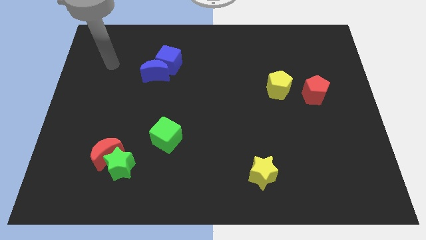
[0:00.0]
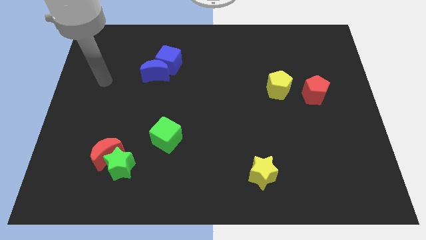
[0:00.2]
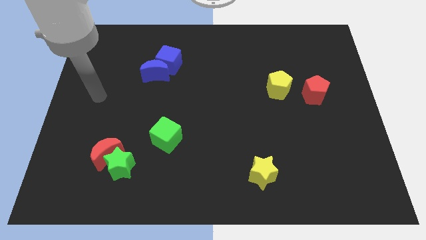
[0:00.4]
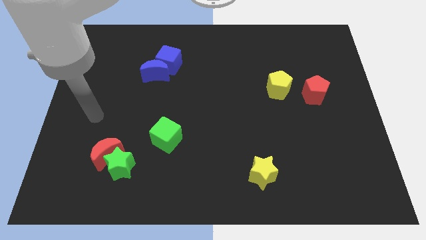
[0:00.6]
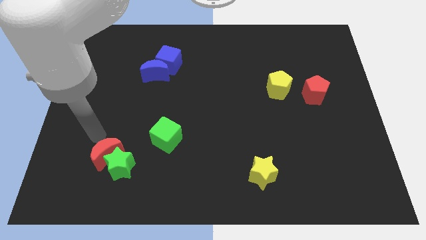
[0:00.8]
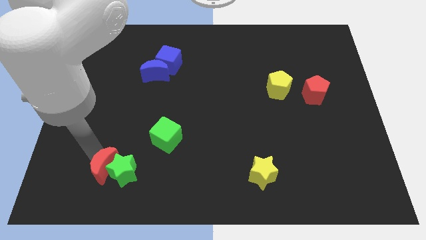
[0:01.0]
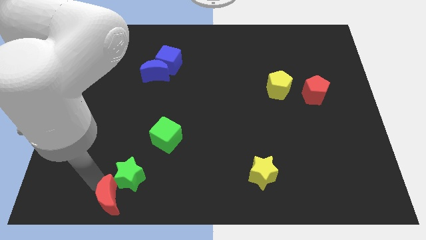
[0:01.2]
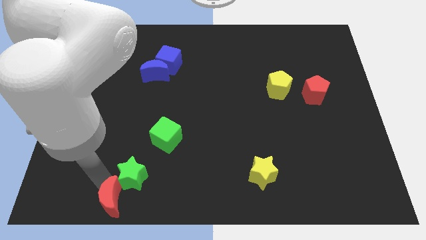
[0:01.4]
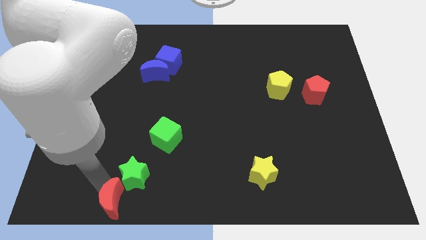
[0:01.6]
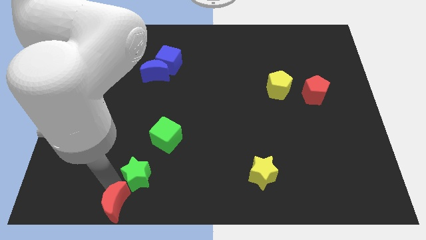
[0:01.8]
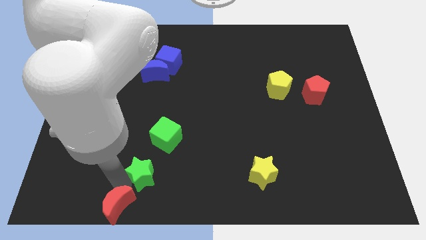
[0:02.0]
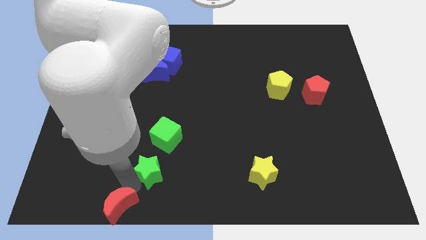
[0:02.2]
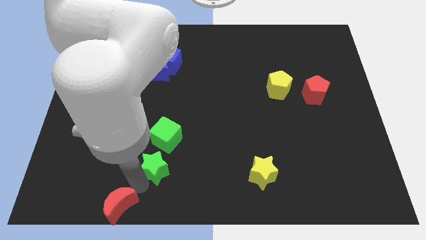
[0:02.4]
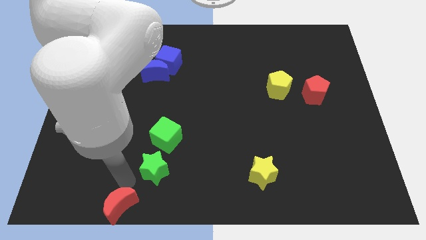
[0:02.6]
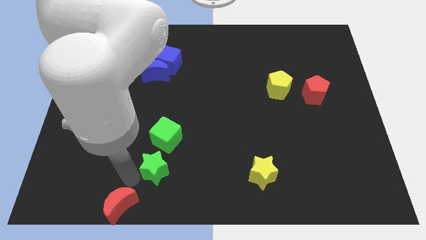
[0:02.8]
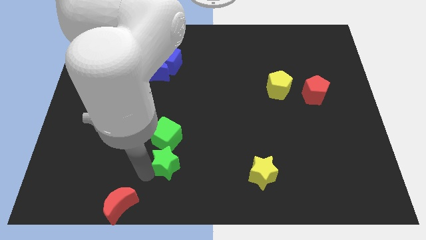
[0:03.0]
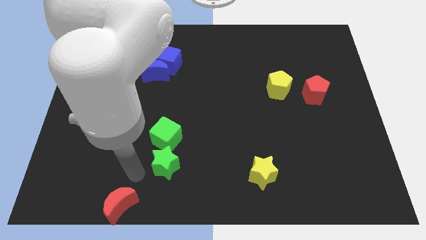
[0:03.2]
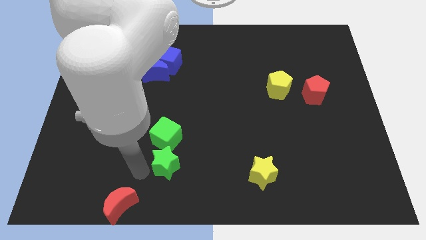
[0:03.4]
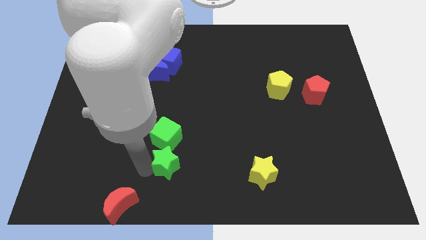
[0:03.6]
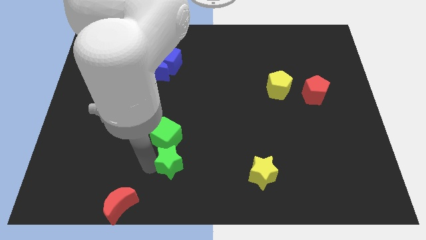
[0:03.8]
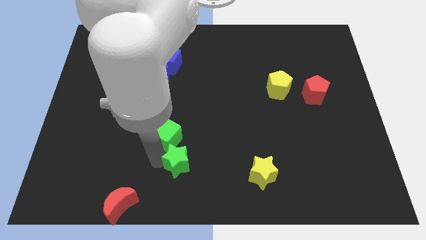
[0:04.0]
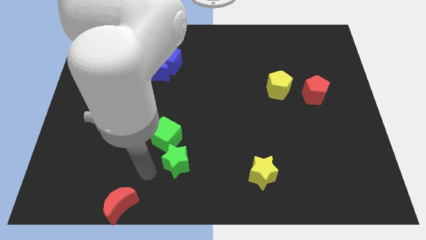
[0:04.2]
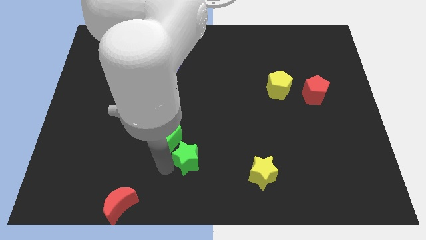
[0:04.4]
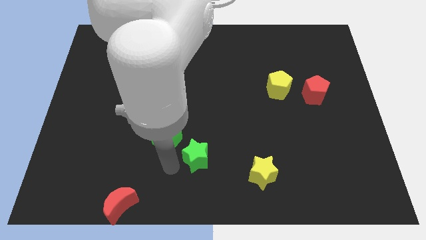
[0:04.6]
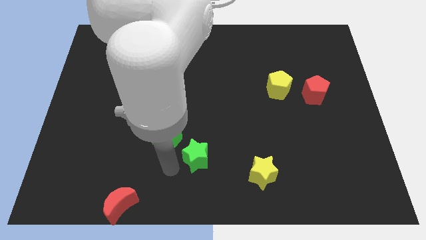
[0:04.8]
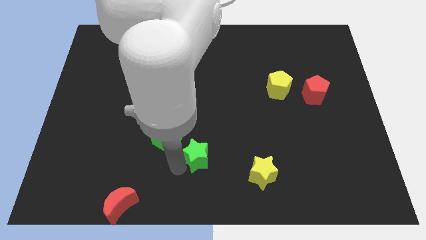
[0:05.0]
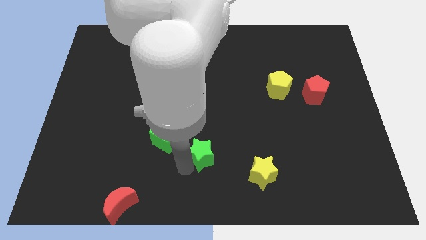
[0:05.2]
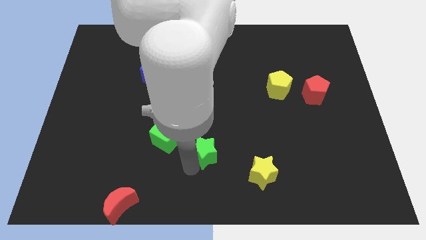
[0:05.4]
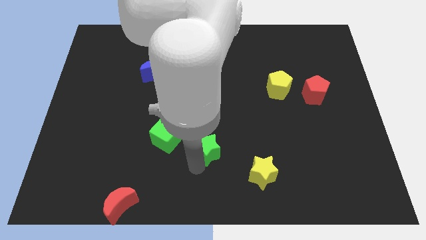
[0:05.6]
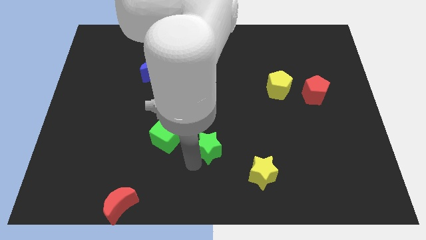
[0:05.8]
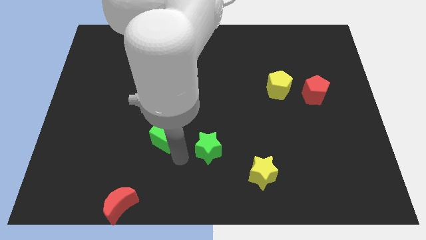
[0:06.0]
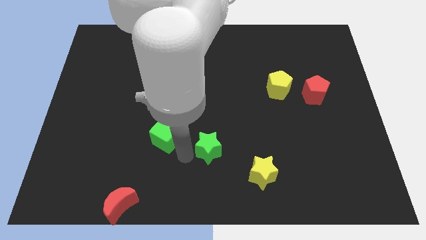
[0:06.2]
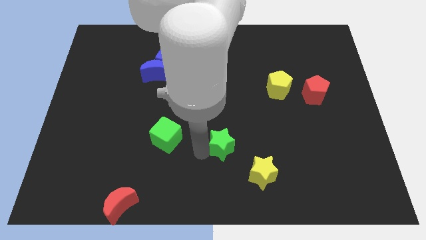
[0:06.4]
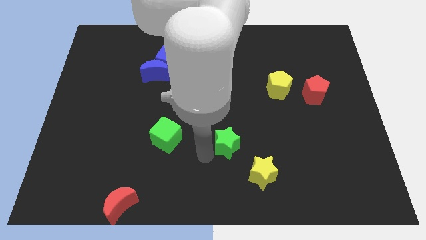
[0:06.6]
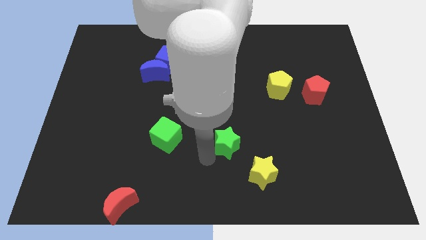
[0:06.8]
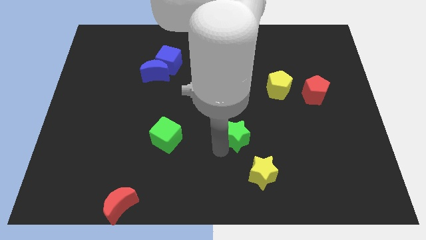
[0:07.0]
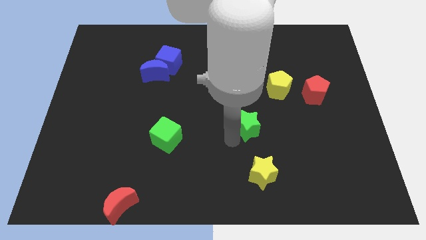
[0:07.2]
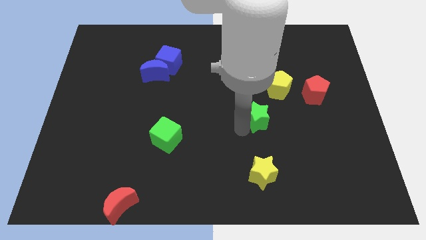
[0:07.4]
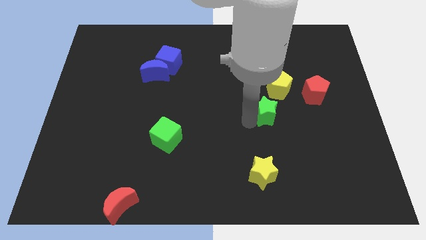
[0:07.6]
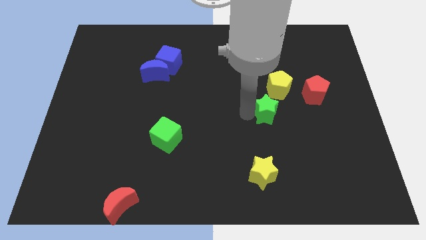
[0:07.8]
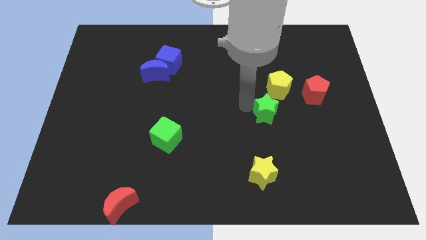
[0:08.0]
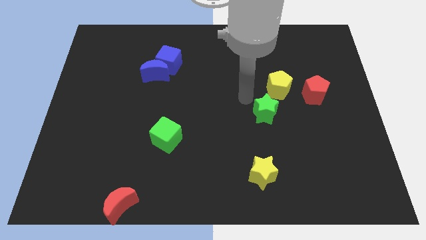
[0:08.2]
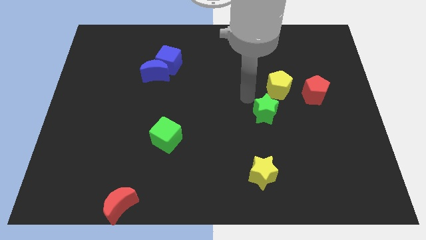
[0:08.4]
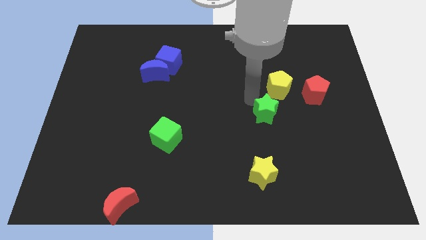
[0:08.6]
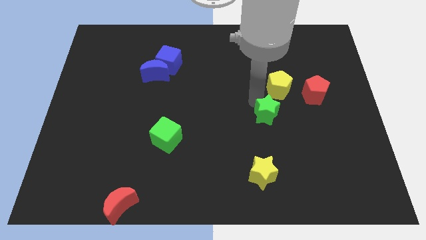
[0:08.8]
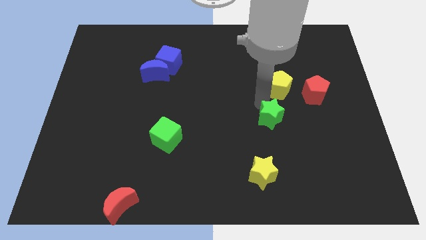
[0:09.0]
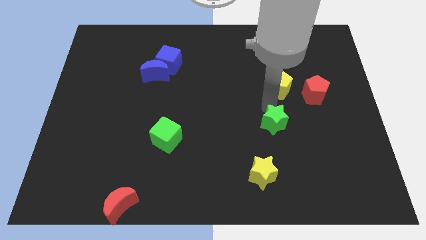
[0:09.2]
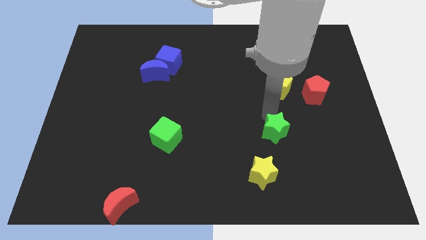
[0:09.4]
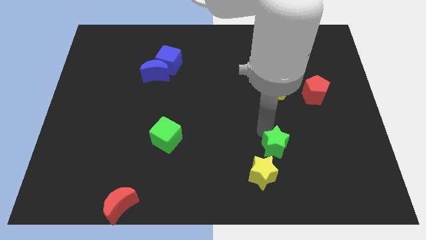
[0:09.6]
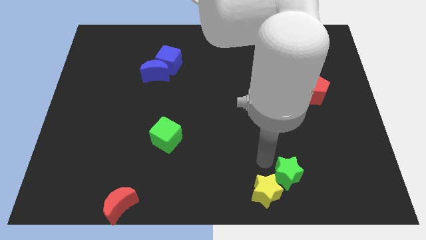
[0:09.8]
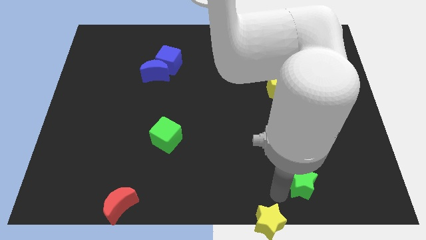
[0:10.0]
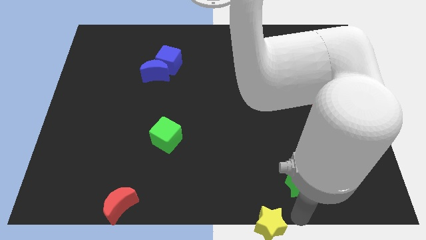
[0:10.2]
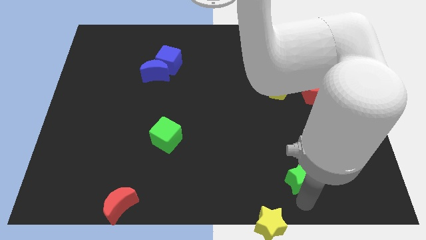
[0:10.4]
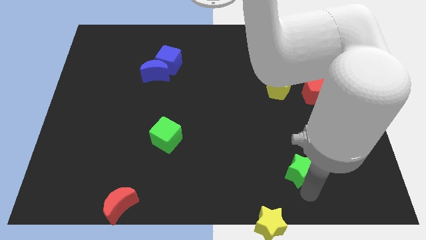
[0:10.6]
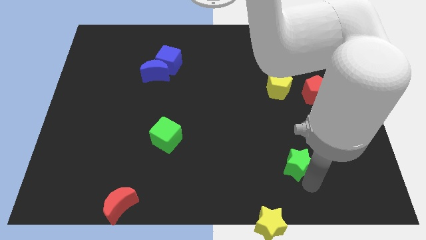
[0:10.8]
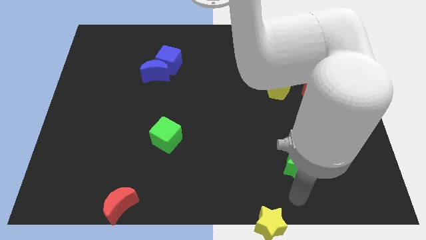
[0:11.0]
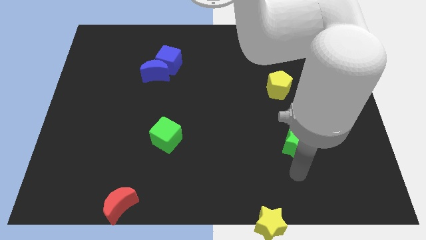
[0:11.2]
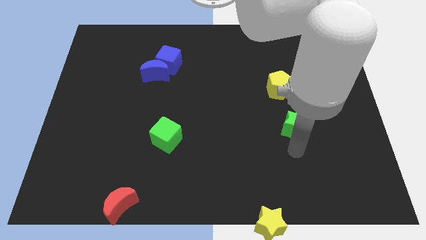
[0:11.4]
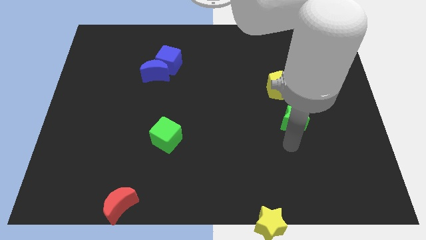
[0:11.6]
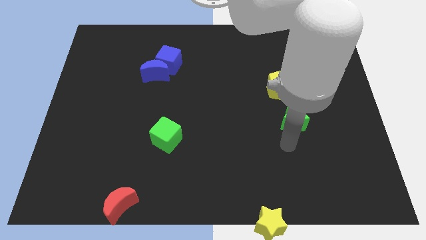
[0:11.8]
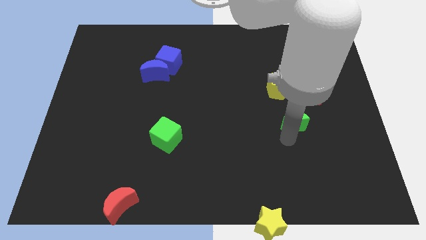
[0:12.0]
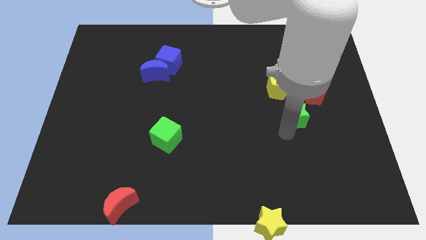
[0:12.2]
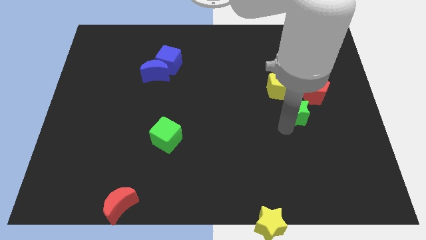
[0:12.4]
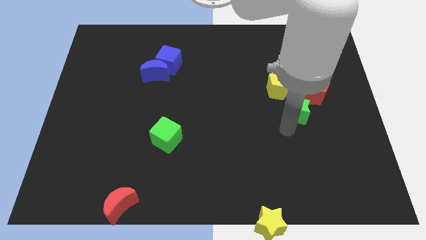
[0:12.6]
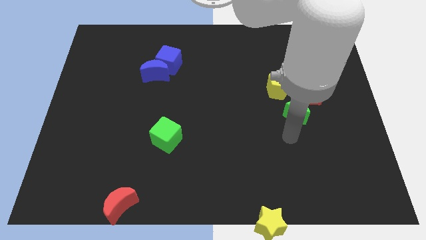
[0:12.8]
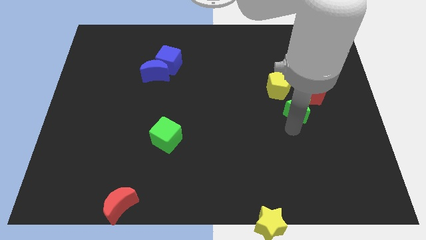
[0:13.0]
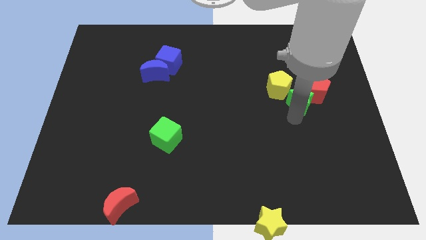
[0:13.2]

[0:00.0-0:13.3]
move the green star to the red pentagon

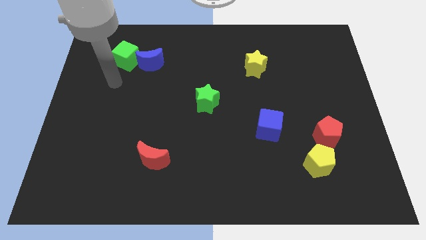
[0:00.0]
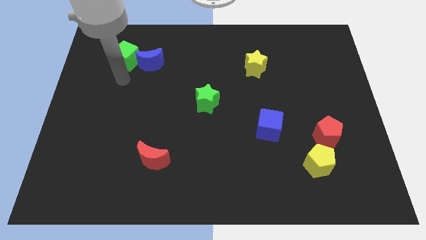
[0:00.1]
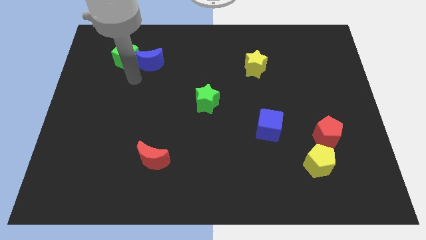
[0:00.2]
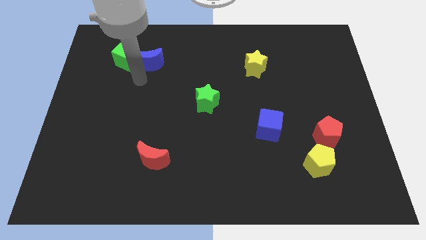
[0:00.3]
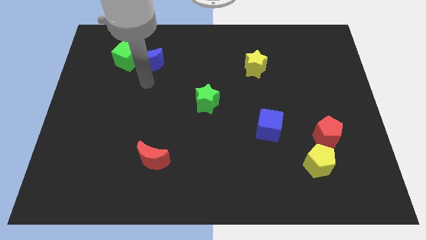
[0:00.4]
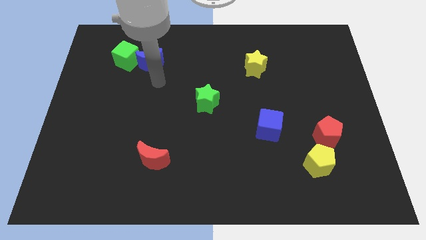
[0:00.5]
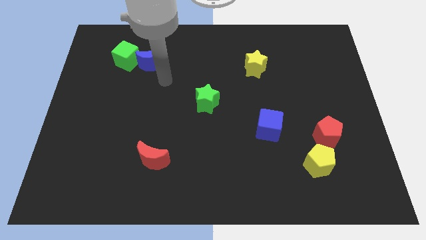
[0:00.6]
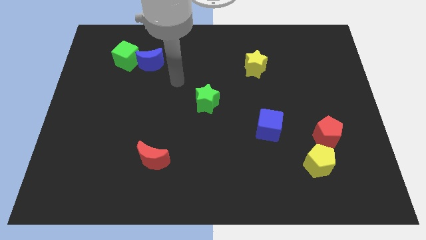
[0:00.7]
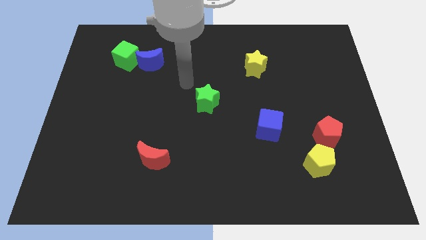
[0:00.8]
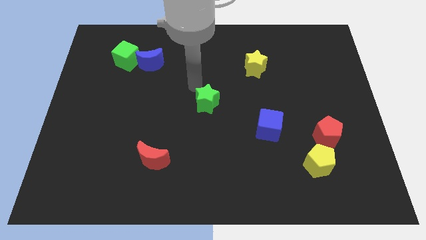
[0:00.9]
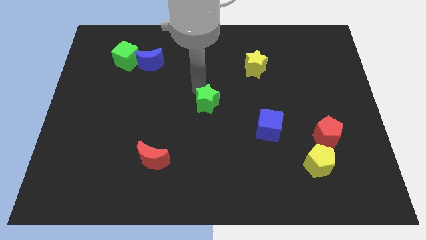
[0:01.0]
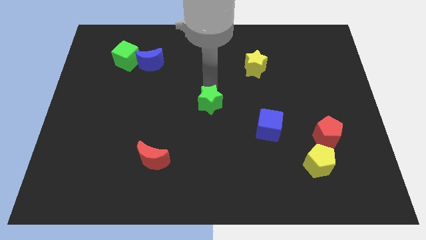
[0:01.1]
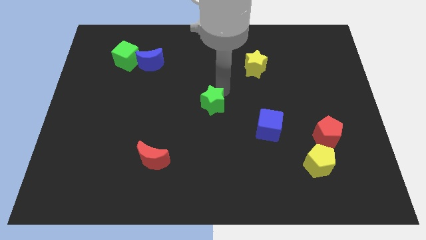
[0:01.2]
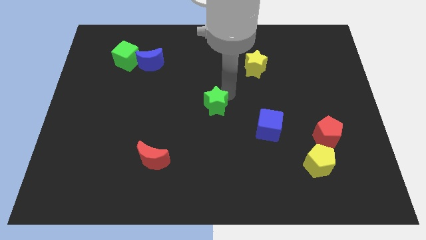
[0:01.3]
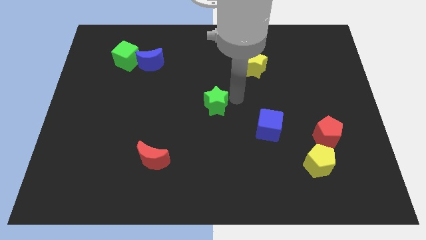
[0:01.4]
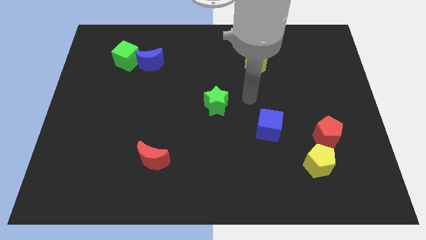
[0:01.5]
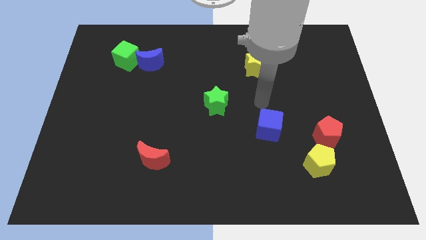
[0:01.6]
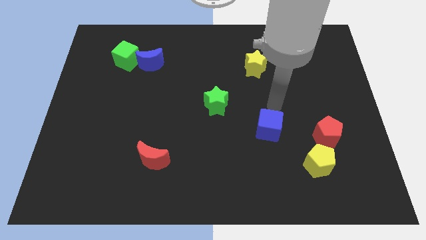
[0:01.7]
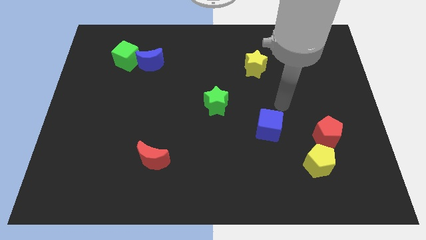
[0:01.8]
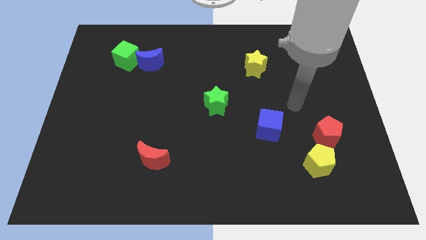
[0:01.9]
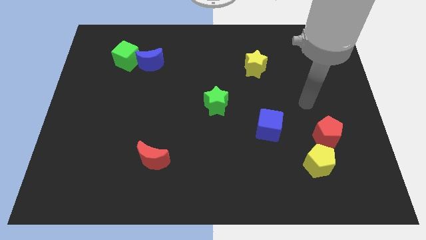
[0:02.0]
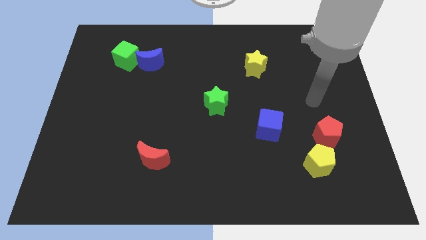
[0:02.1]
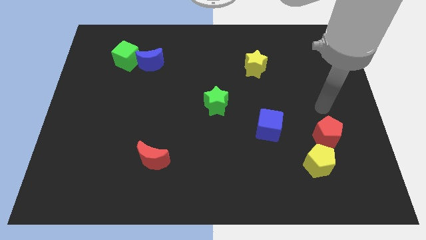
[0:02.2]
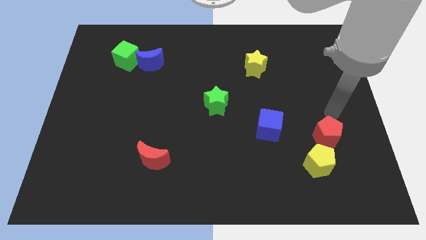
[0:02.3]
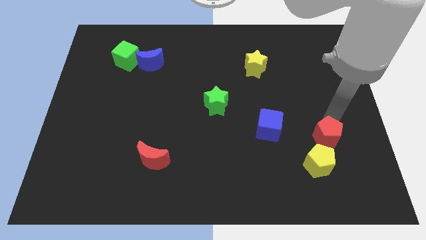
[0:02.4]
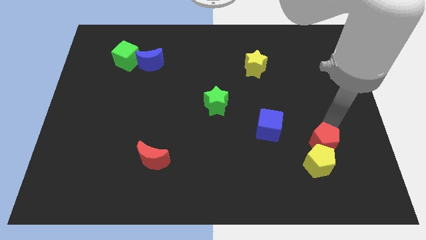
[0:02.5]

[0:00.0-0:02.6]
push the red pentagon to the yellow pentagon
